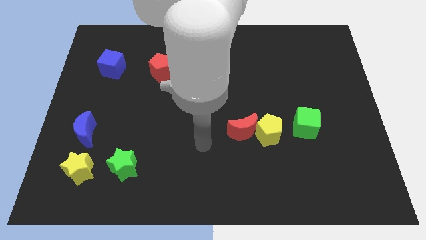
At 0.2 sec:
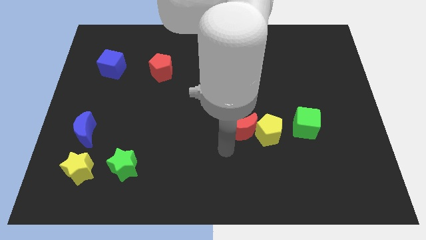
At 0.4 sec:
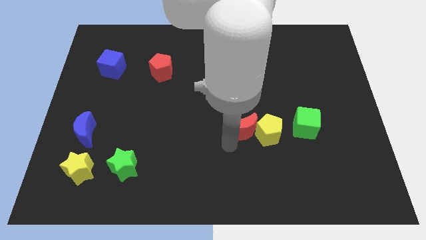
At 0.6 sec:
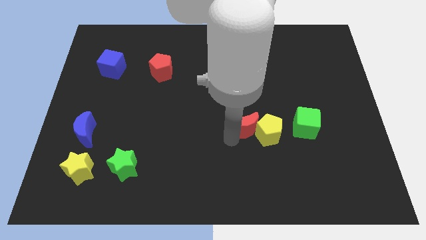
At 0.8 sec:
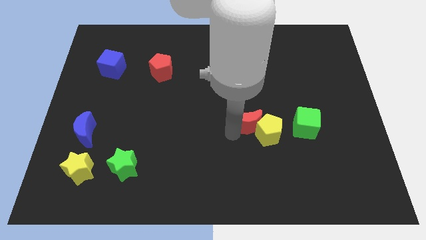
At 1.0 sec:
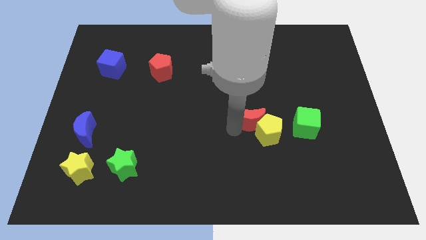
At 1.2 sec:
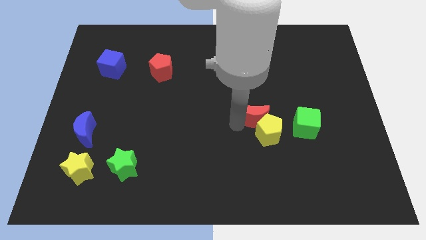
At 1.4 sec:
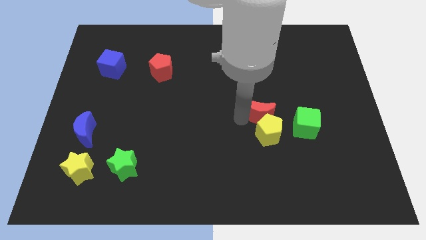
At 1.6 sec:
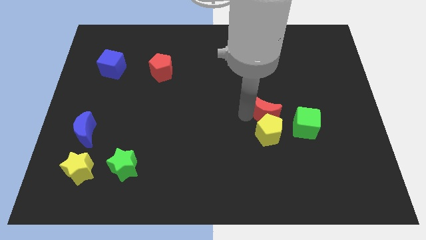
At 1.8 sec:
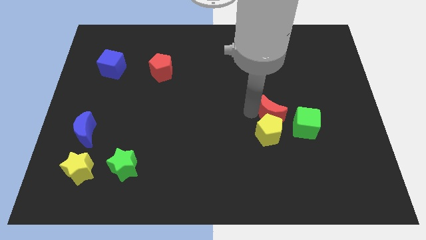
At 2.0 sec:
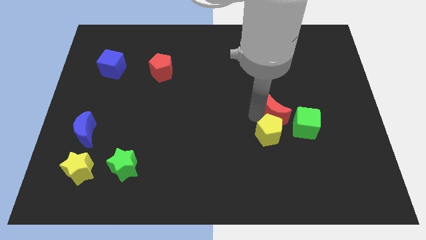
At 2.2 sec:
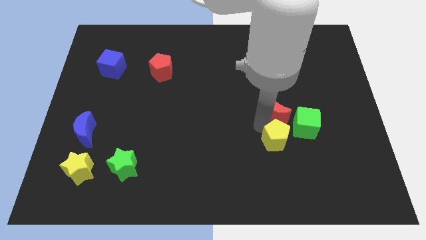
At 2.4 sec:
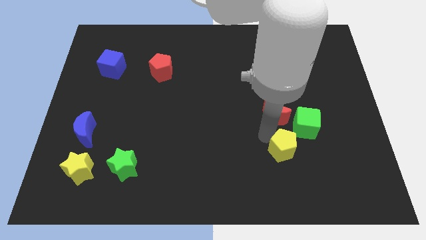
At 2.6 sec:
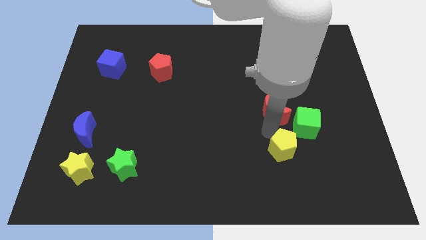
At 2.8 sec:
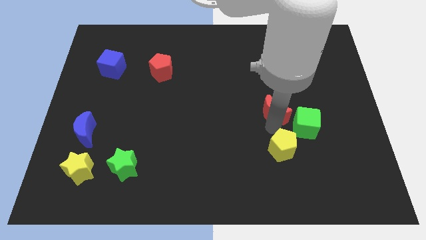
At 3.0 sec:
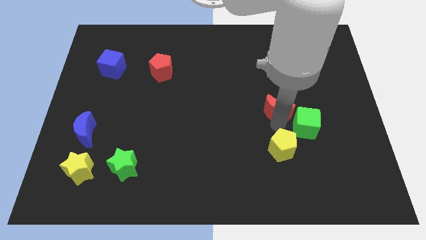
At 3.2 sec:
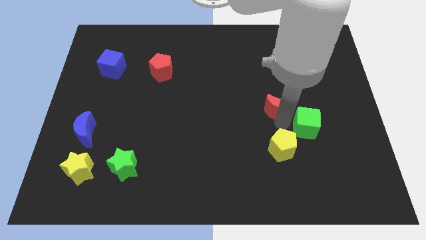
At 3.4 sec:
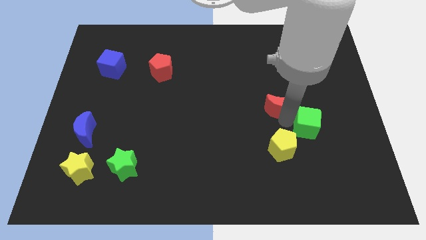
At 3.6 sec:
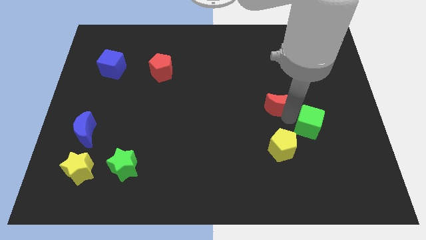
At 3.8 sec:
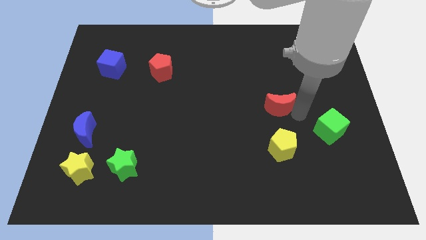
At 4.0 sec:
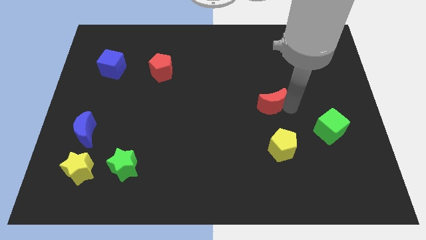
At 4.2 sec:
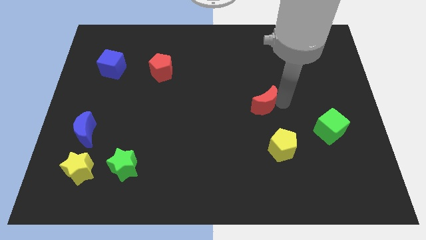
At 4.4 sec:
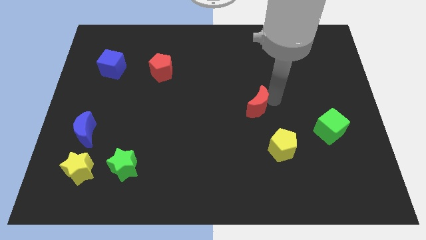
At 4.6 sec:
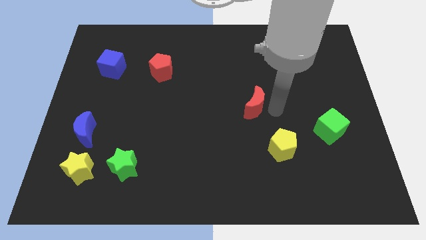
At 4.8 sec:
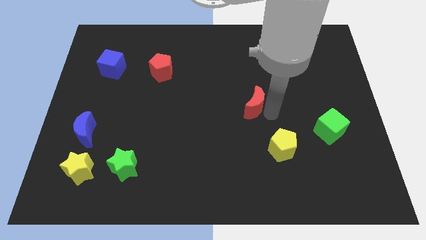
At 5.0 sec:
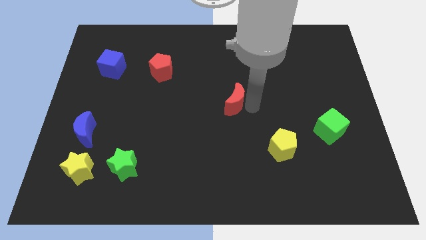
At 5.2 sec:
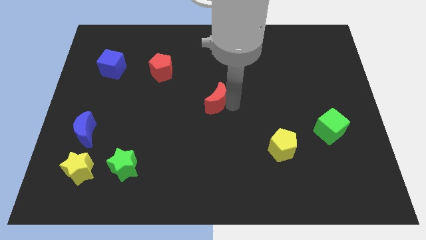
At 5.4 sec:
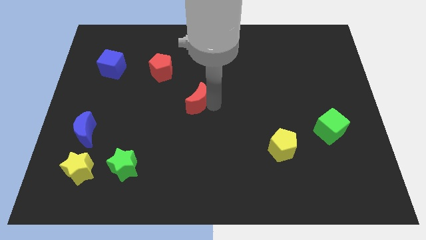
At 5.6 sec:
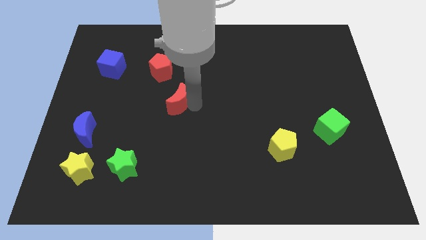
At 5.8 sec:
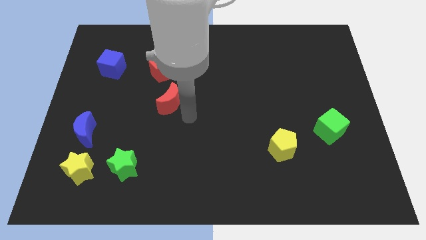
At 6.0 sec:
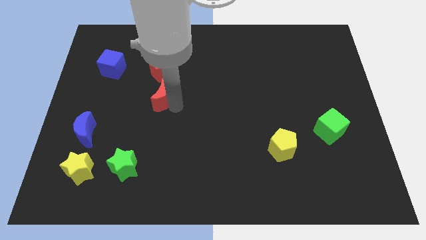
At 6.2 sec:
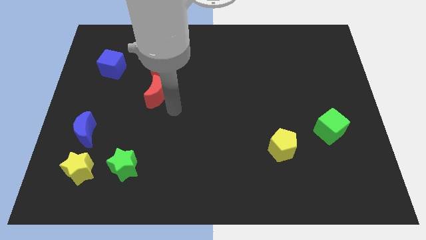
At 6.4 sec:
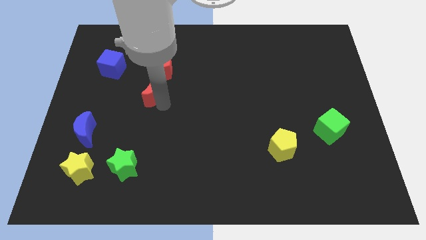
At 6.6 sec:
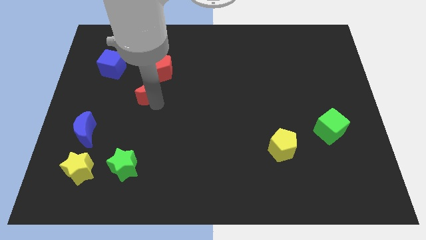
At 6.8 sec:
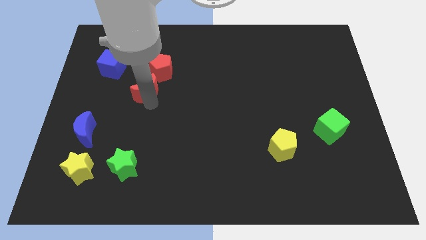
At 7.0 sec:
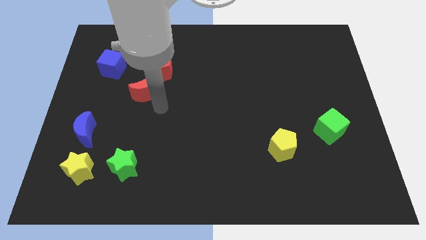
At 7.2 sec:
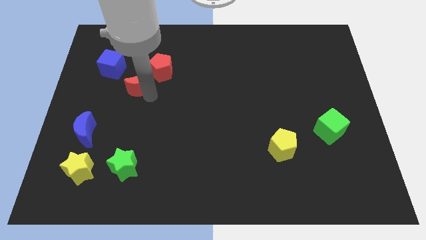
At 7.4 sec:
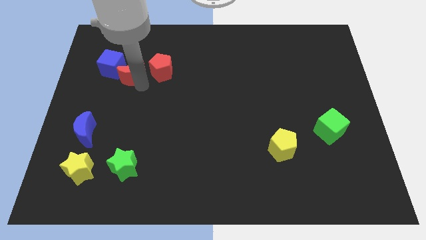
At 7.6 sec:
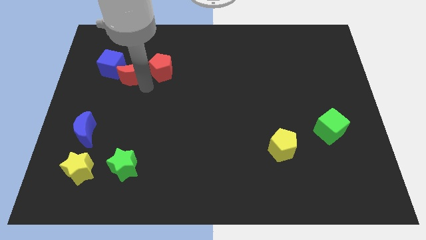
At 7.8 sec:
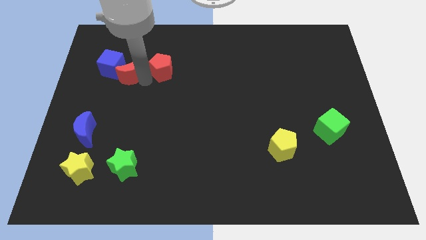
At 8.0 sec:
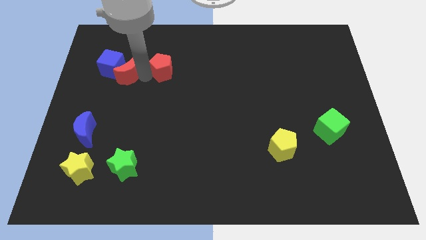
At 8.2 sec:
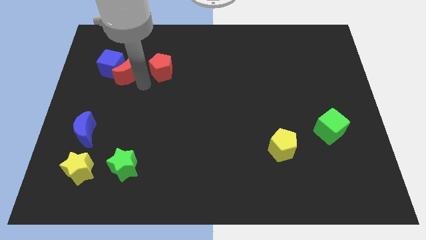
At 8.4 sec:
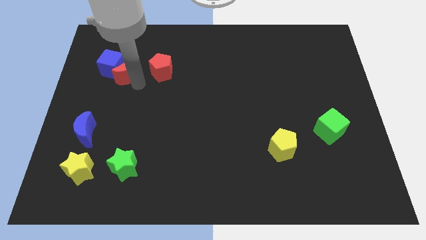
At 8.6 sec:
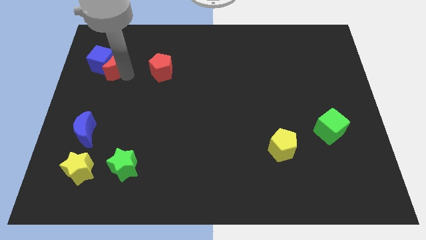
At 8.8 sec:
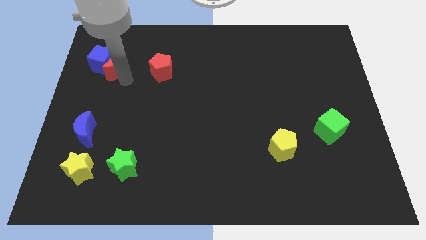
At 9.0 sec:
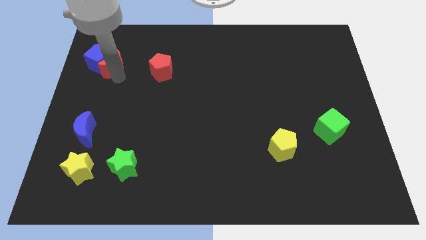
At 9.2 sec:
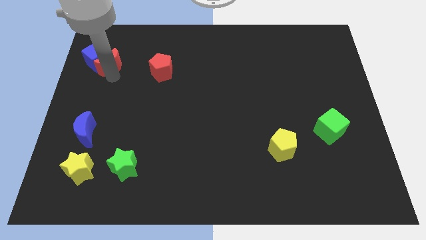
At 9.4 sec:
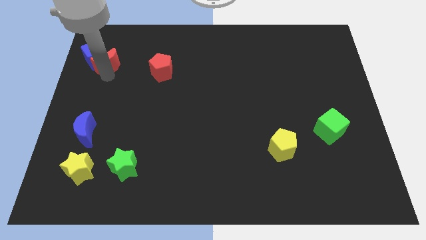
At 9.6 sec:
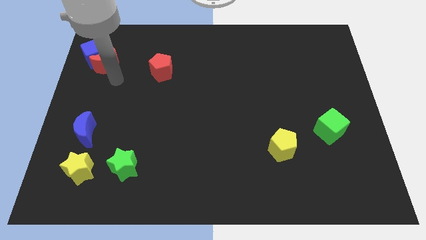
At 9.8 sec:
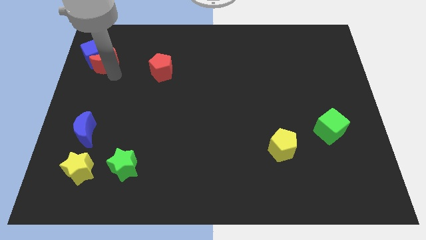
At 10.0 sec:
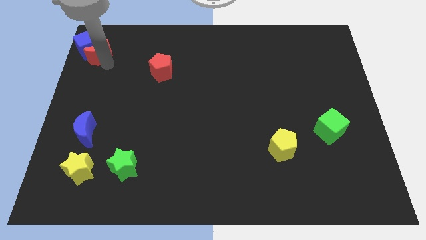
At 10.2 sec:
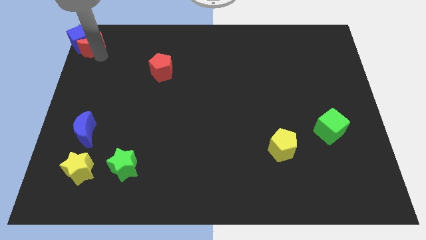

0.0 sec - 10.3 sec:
move the red moon to the top left

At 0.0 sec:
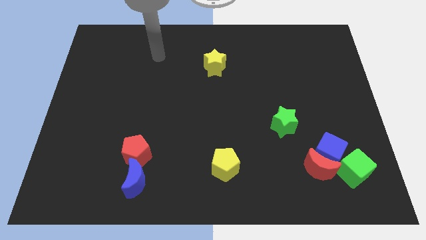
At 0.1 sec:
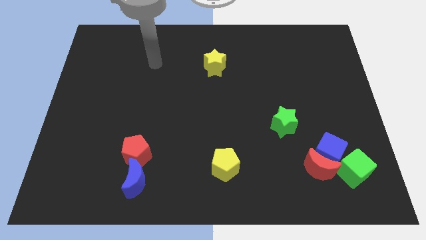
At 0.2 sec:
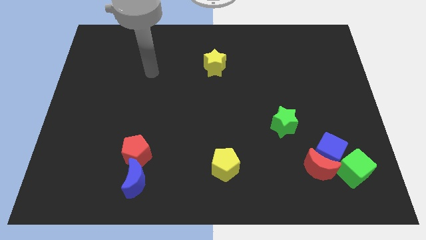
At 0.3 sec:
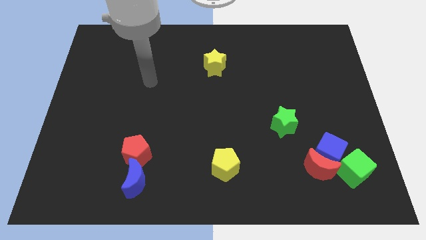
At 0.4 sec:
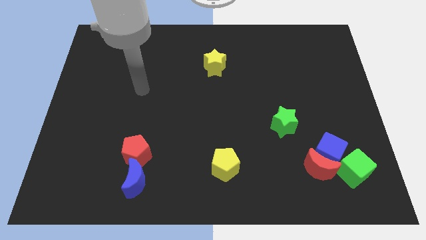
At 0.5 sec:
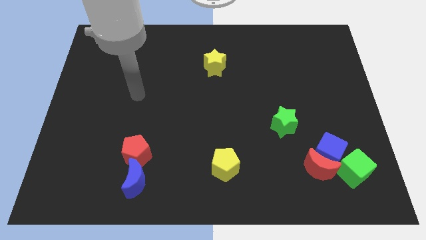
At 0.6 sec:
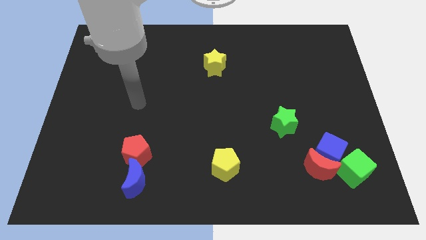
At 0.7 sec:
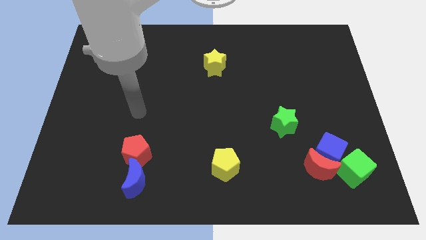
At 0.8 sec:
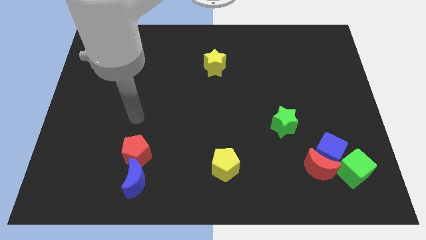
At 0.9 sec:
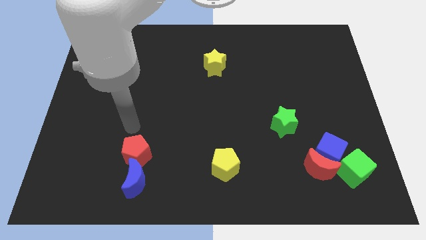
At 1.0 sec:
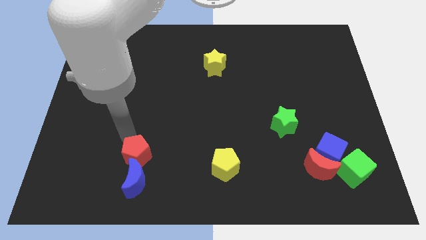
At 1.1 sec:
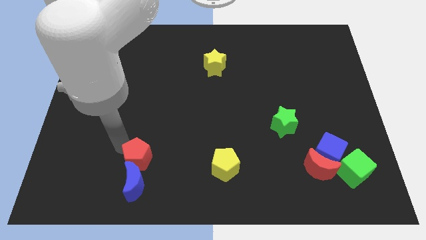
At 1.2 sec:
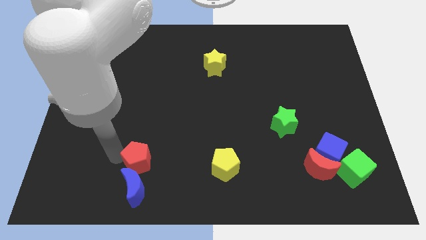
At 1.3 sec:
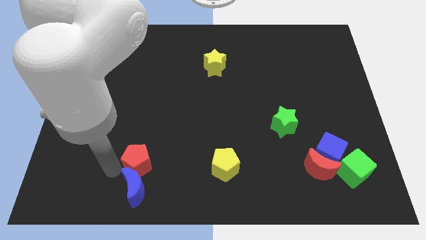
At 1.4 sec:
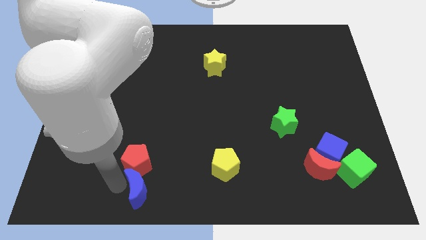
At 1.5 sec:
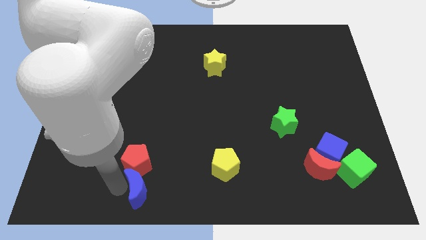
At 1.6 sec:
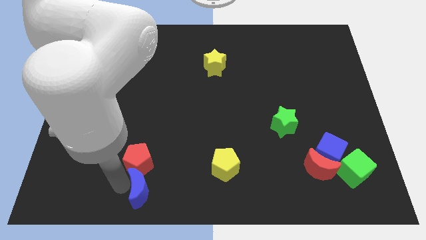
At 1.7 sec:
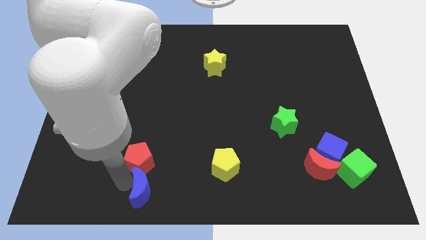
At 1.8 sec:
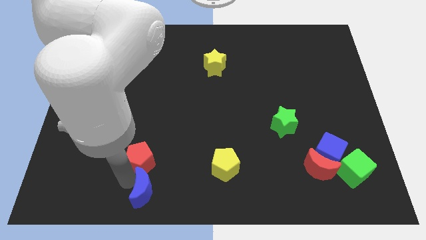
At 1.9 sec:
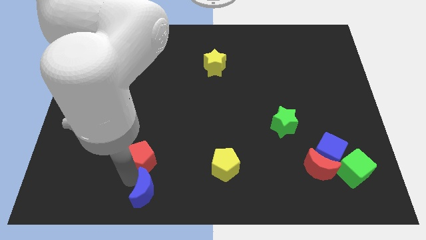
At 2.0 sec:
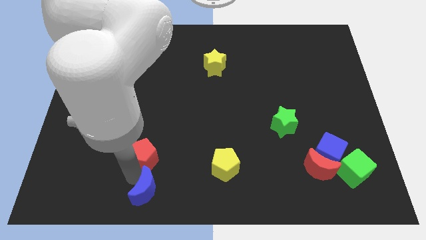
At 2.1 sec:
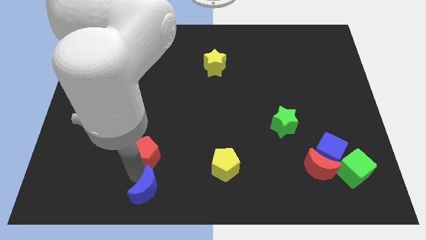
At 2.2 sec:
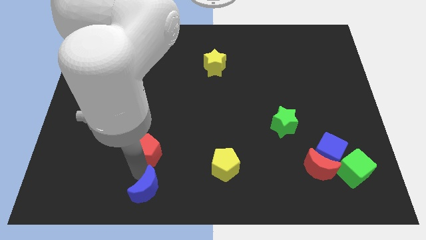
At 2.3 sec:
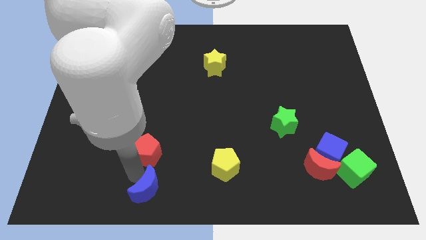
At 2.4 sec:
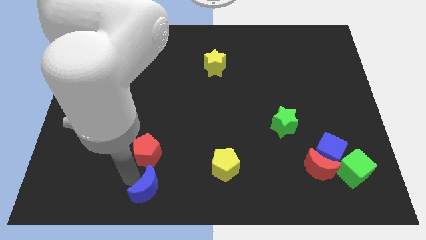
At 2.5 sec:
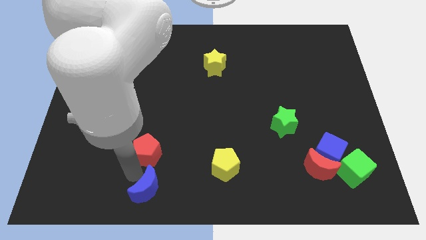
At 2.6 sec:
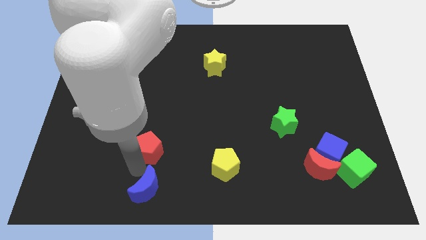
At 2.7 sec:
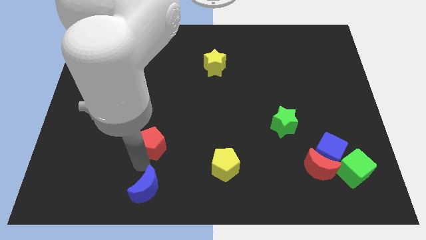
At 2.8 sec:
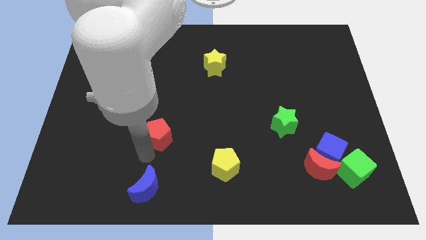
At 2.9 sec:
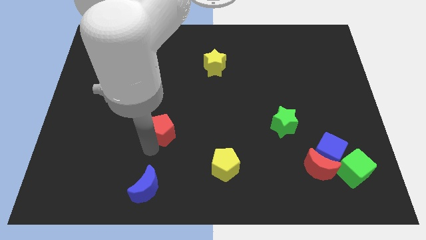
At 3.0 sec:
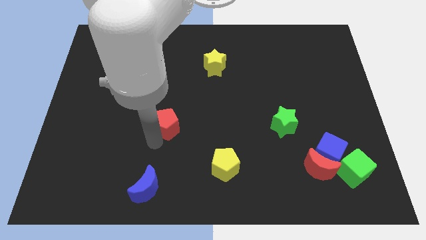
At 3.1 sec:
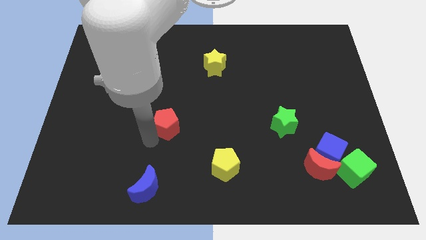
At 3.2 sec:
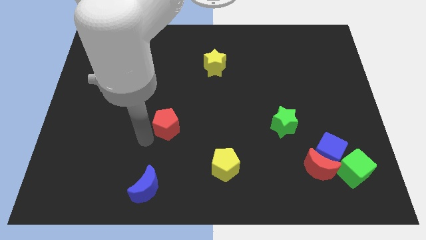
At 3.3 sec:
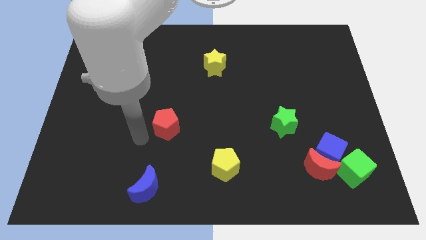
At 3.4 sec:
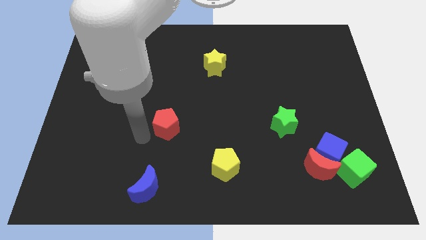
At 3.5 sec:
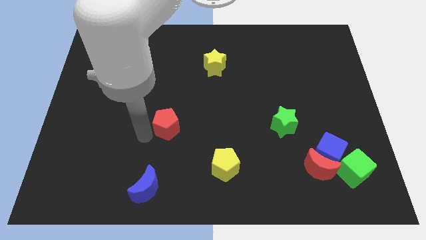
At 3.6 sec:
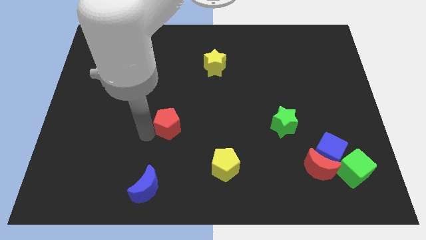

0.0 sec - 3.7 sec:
push the red pentagon to the center of the board
